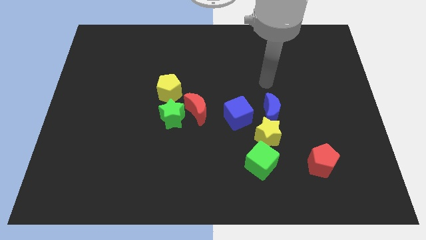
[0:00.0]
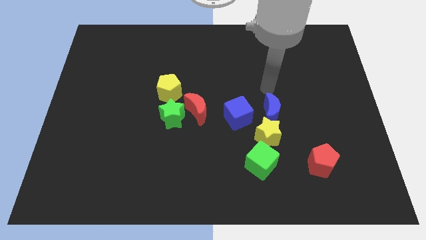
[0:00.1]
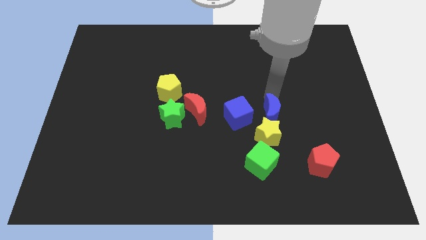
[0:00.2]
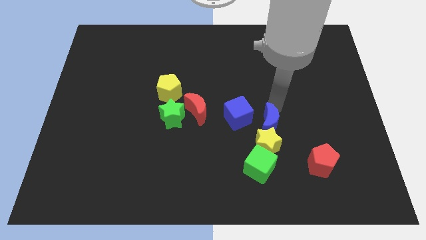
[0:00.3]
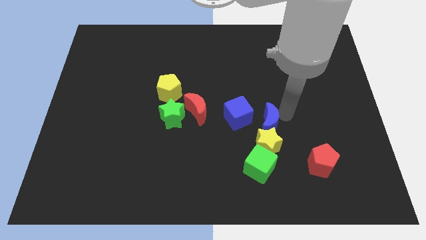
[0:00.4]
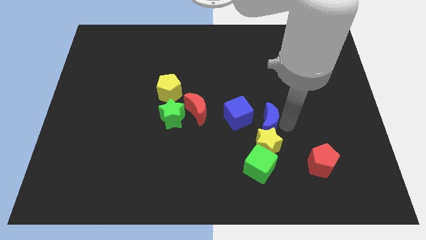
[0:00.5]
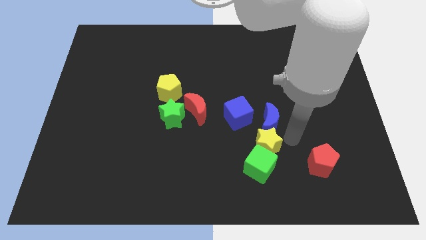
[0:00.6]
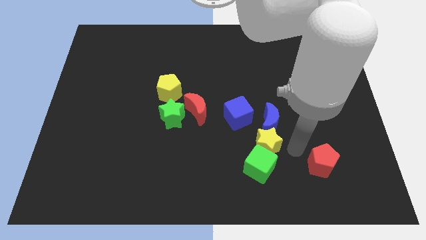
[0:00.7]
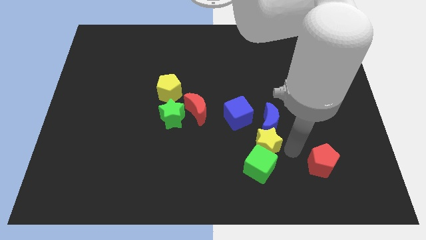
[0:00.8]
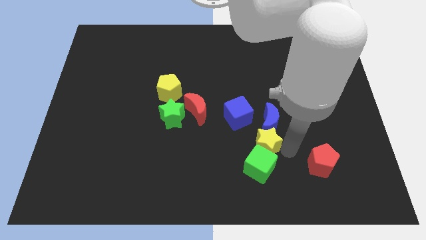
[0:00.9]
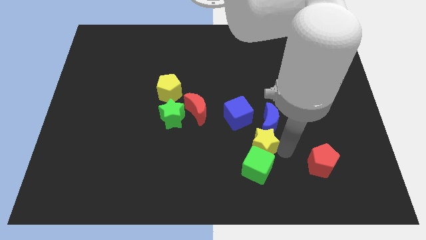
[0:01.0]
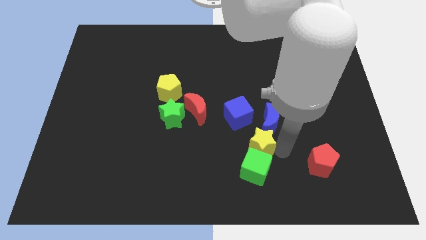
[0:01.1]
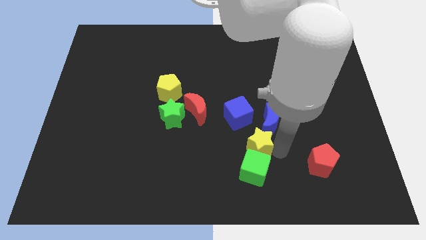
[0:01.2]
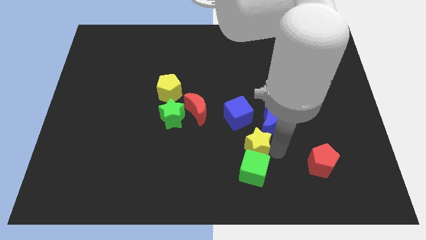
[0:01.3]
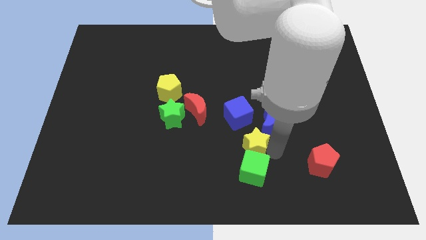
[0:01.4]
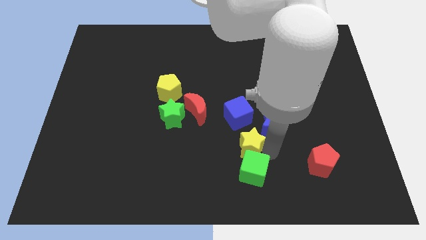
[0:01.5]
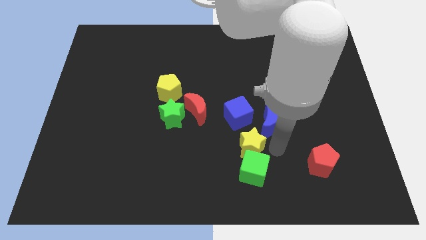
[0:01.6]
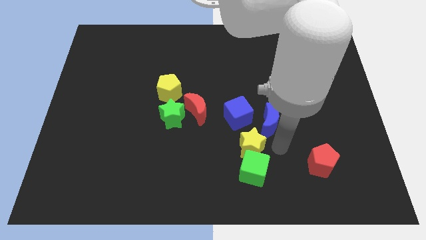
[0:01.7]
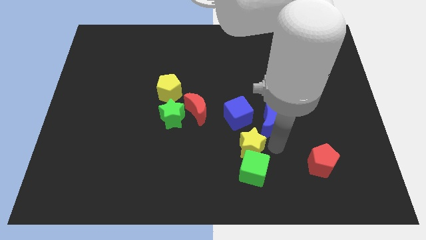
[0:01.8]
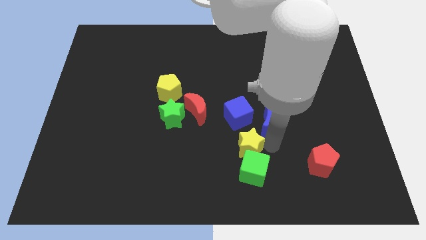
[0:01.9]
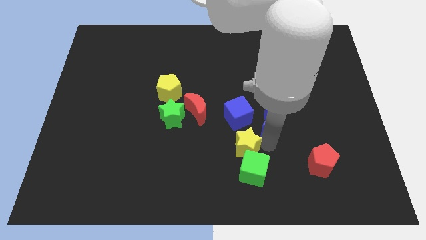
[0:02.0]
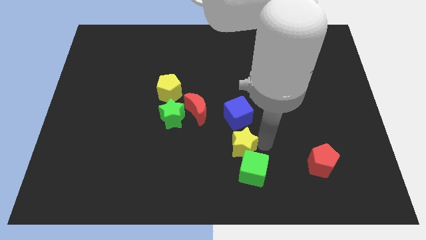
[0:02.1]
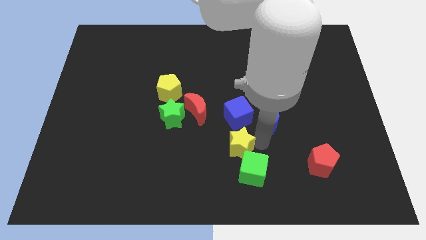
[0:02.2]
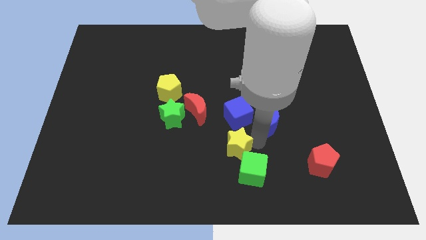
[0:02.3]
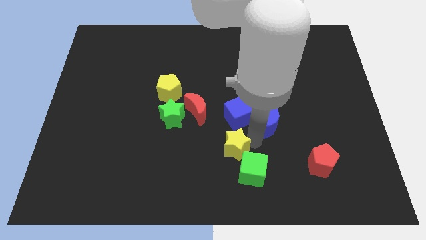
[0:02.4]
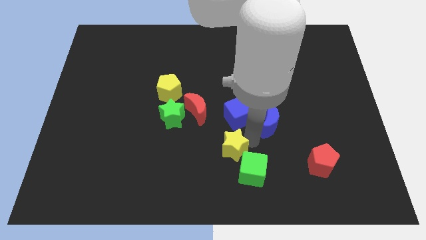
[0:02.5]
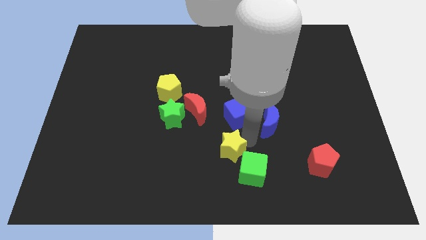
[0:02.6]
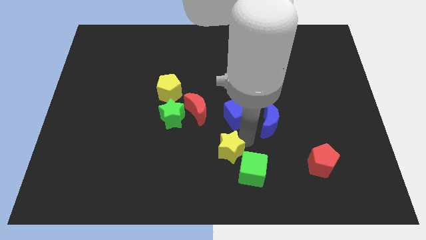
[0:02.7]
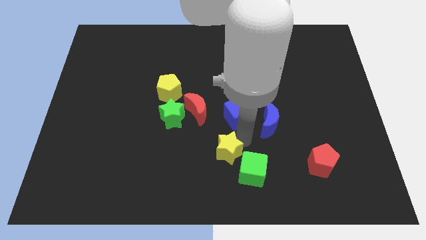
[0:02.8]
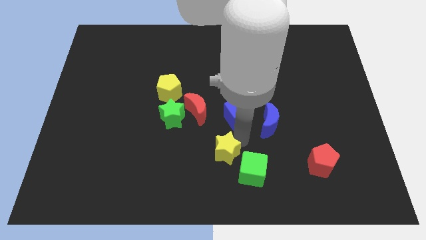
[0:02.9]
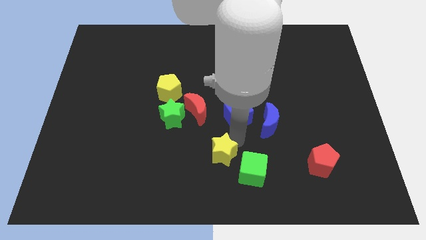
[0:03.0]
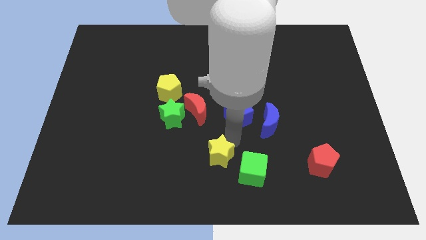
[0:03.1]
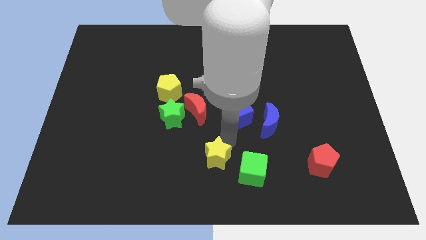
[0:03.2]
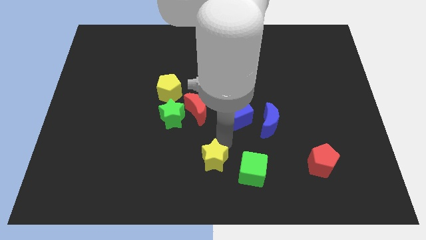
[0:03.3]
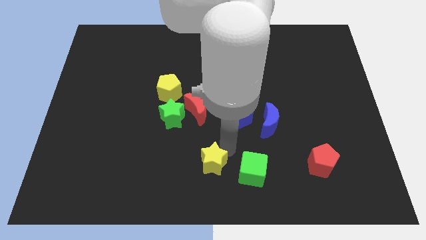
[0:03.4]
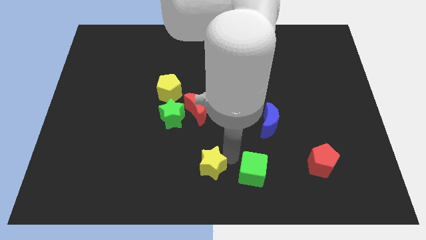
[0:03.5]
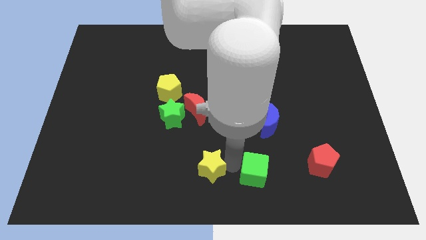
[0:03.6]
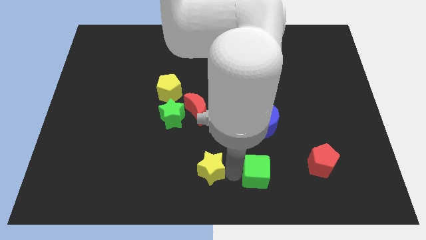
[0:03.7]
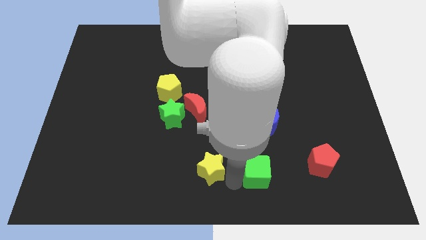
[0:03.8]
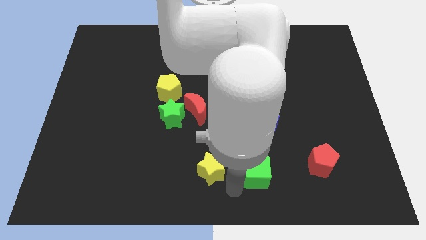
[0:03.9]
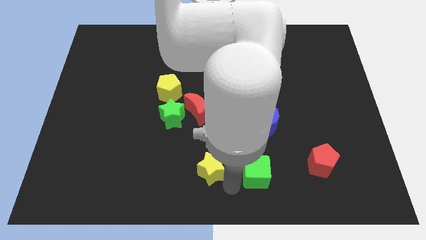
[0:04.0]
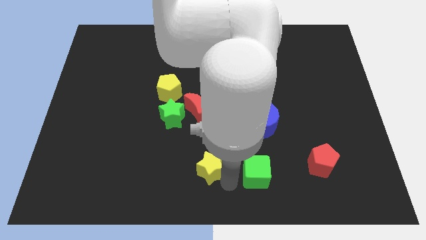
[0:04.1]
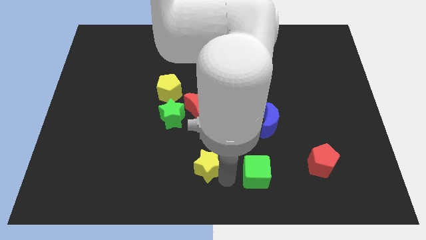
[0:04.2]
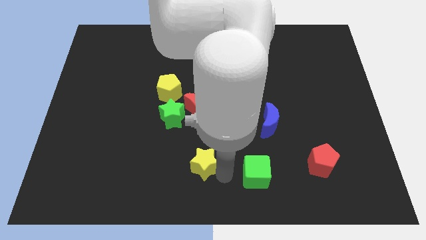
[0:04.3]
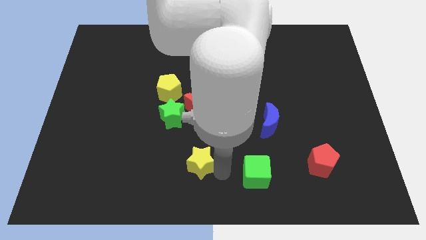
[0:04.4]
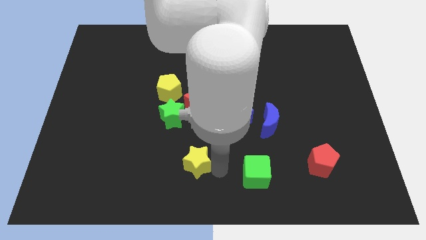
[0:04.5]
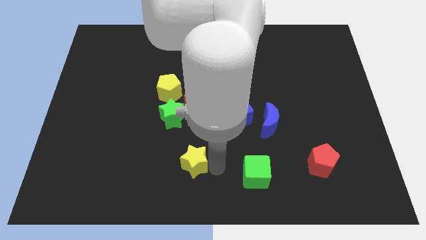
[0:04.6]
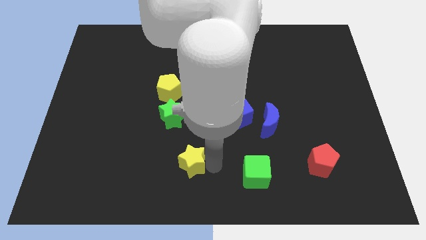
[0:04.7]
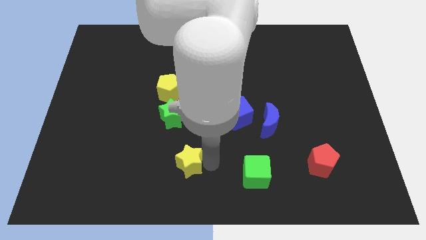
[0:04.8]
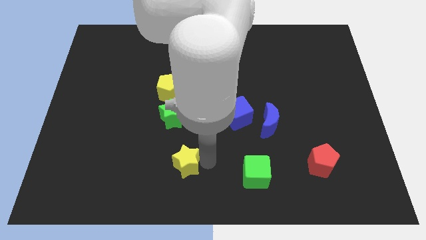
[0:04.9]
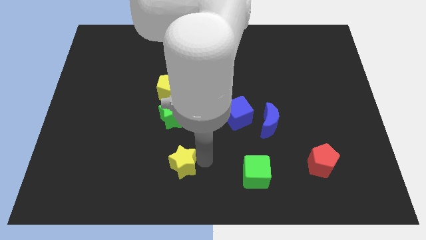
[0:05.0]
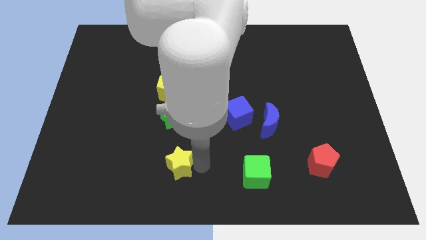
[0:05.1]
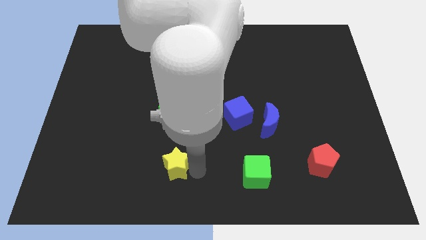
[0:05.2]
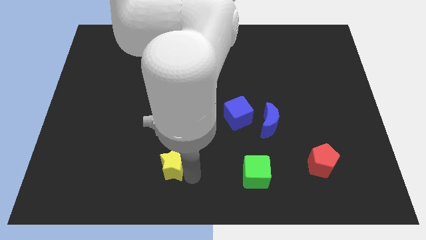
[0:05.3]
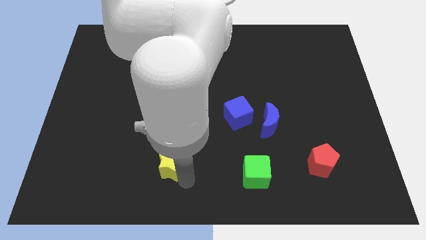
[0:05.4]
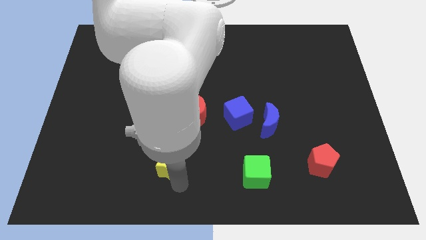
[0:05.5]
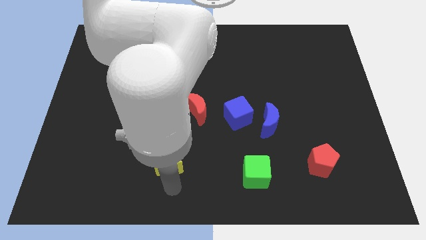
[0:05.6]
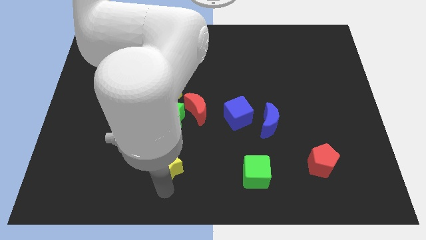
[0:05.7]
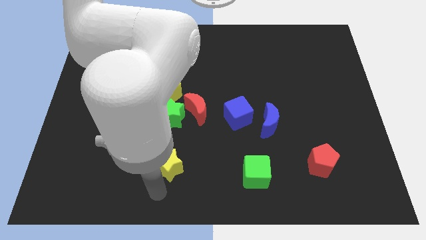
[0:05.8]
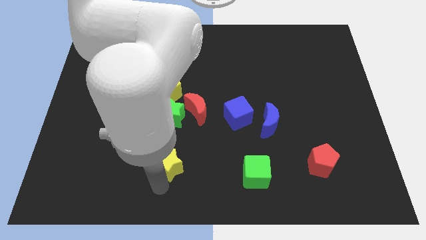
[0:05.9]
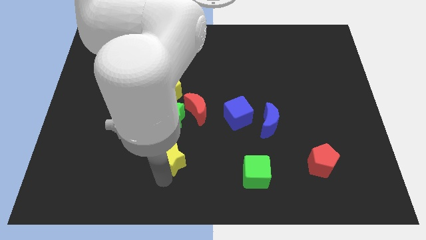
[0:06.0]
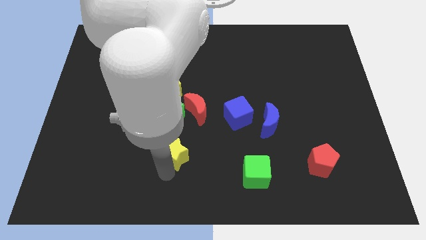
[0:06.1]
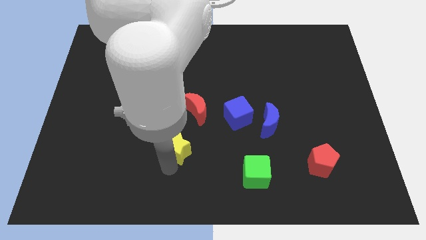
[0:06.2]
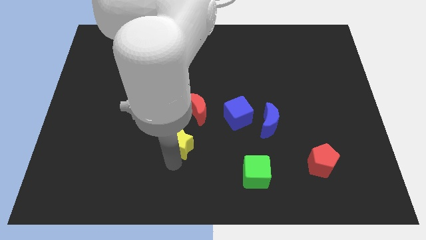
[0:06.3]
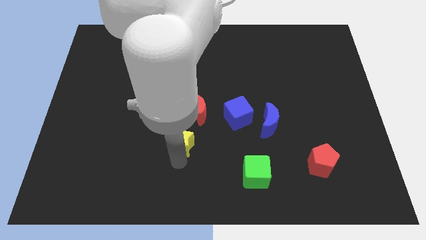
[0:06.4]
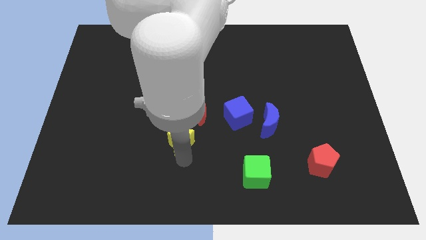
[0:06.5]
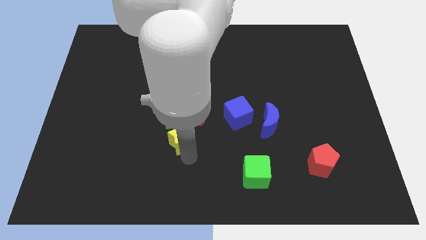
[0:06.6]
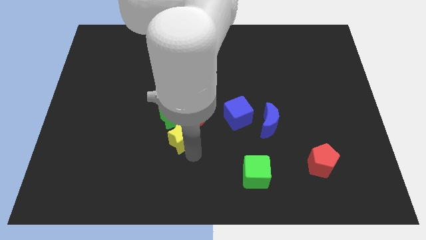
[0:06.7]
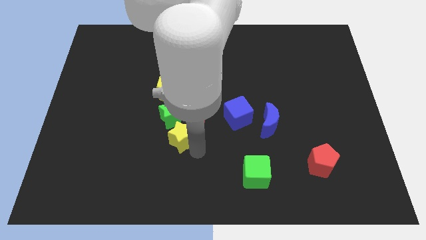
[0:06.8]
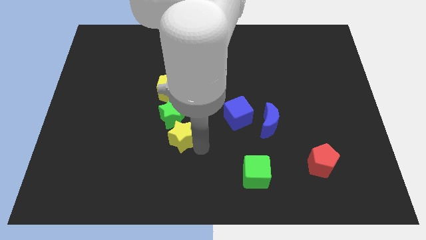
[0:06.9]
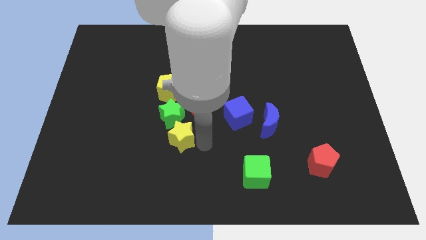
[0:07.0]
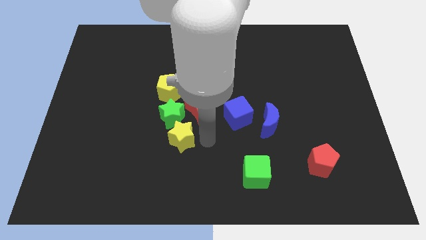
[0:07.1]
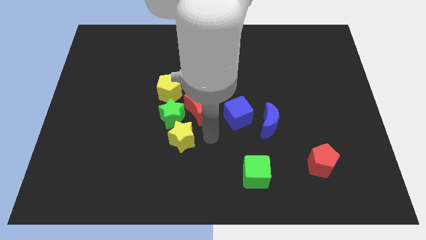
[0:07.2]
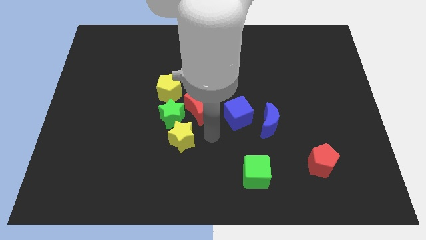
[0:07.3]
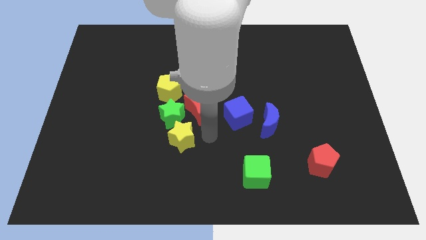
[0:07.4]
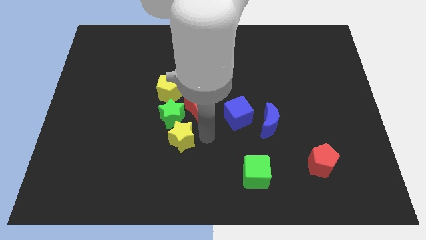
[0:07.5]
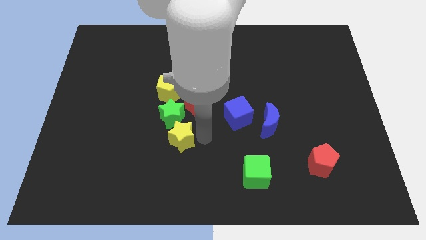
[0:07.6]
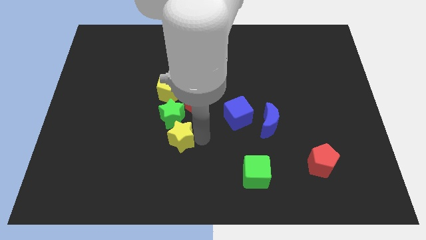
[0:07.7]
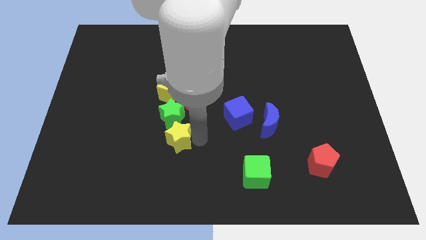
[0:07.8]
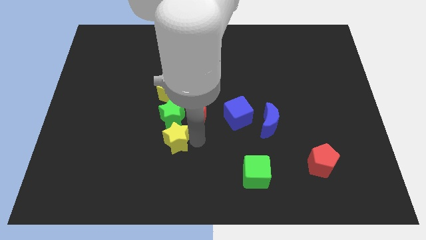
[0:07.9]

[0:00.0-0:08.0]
slide the yellow star left

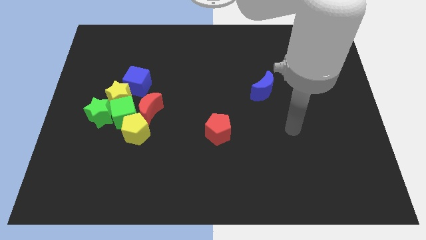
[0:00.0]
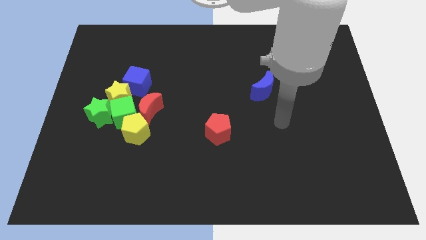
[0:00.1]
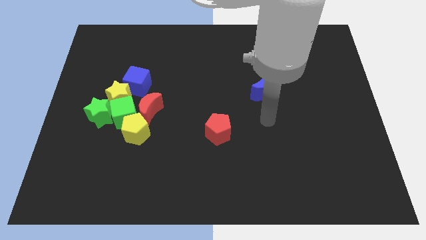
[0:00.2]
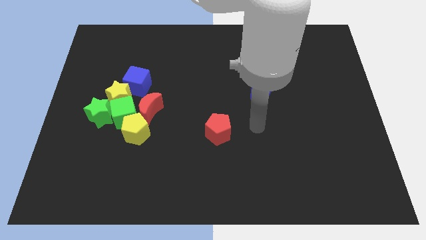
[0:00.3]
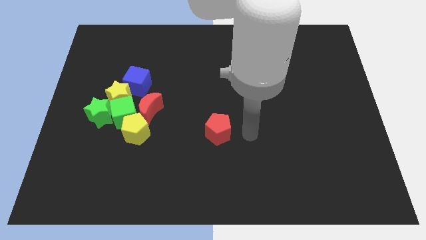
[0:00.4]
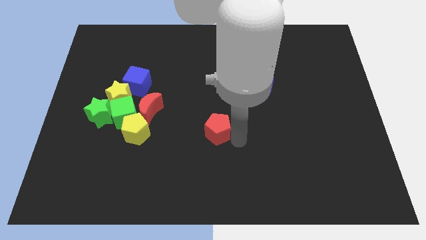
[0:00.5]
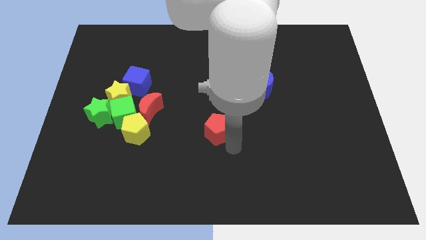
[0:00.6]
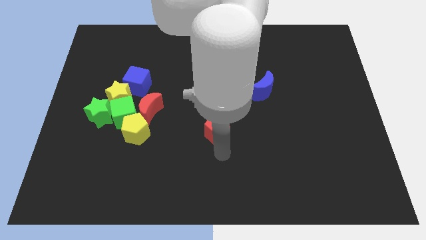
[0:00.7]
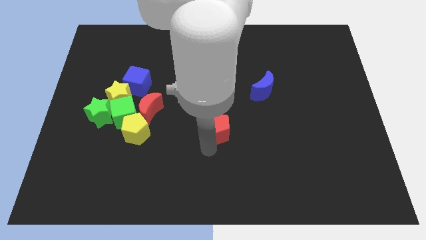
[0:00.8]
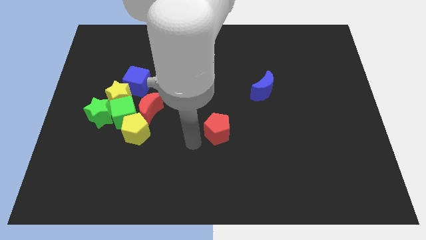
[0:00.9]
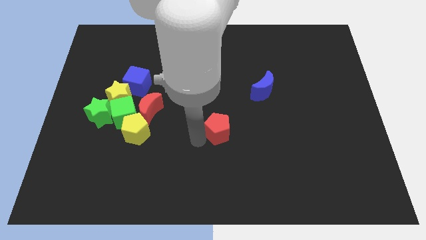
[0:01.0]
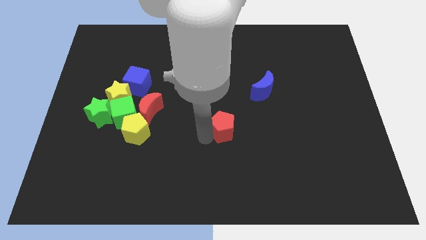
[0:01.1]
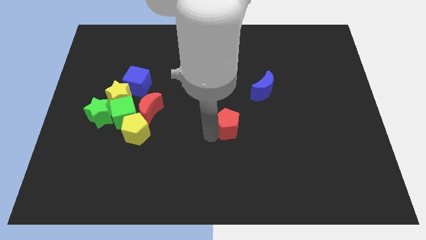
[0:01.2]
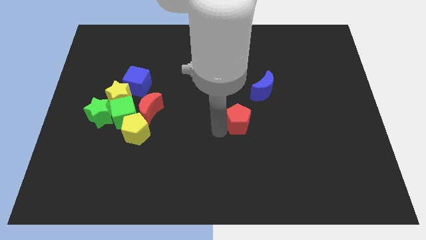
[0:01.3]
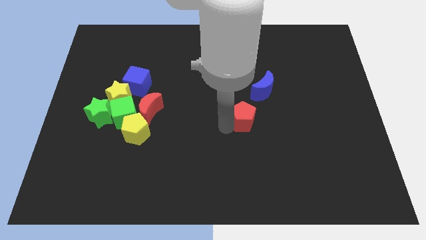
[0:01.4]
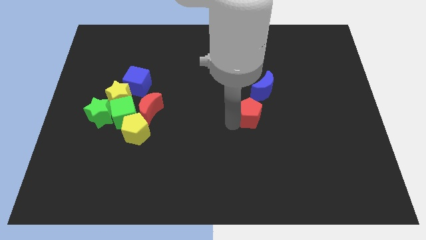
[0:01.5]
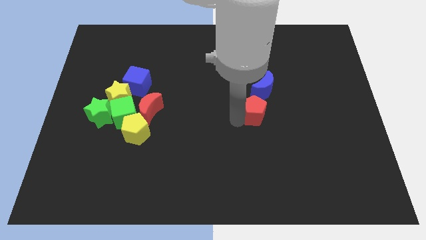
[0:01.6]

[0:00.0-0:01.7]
slide the red pentagon slightly to the right
